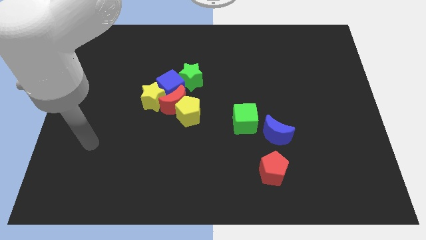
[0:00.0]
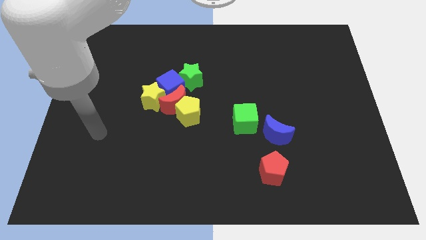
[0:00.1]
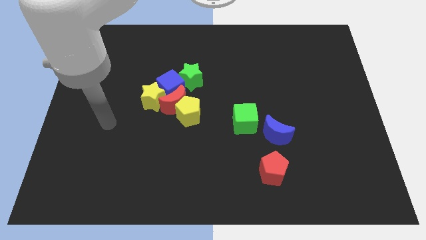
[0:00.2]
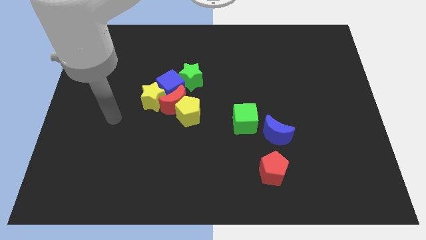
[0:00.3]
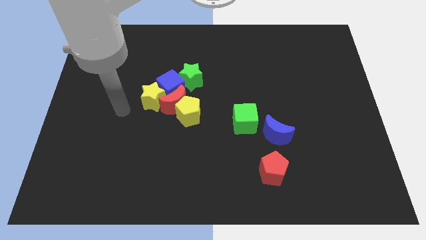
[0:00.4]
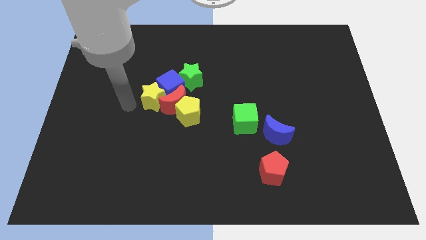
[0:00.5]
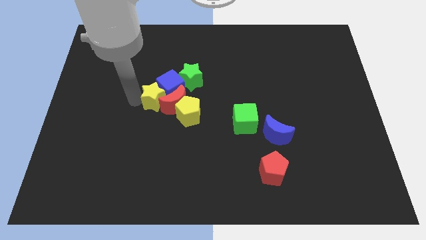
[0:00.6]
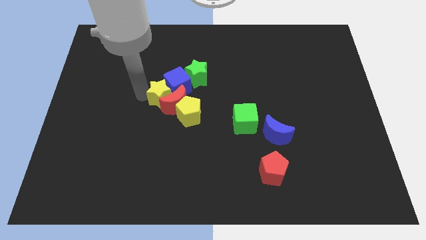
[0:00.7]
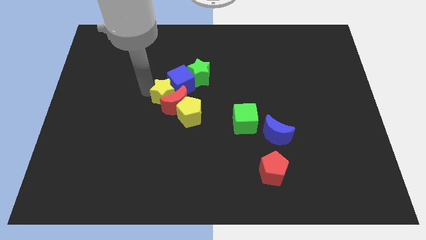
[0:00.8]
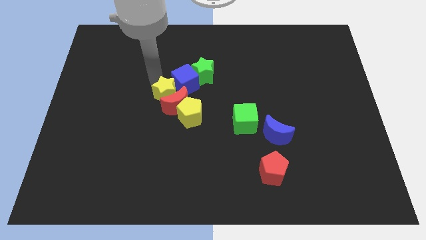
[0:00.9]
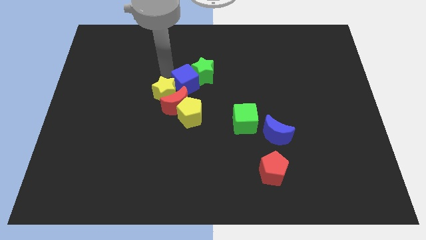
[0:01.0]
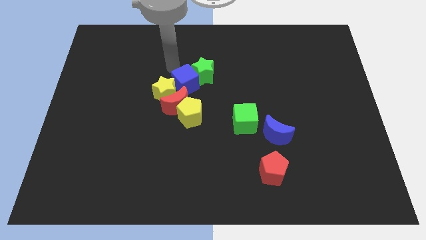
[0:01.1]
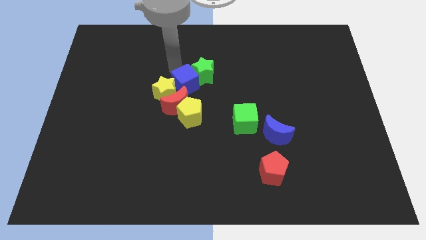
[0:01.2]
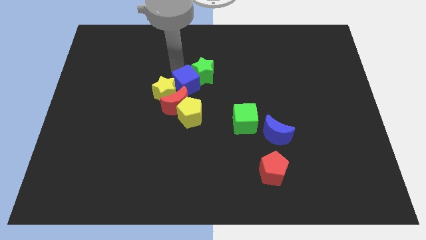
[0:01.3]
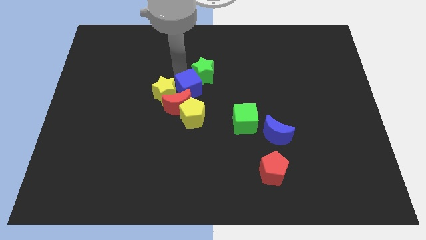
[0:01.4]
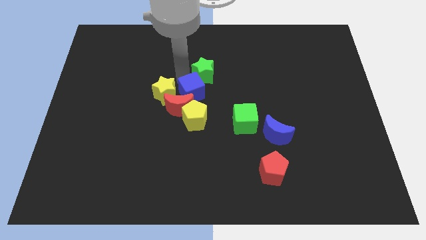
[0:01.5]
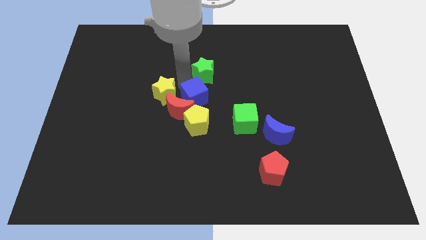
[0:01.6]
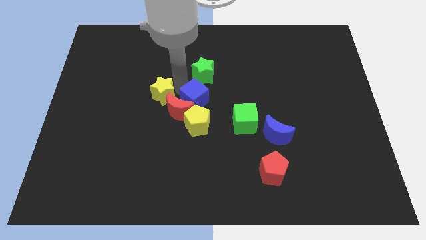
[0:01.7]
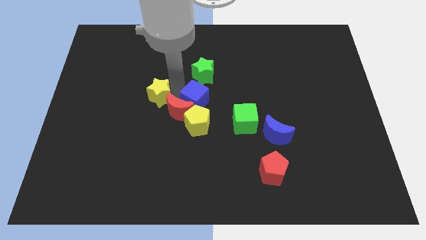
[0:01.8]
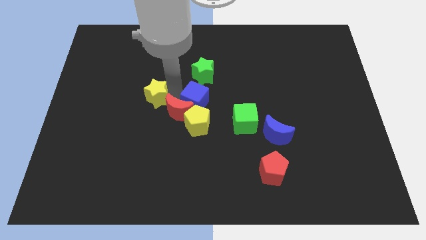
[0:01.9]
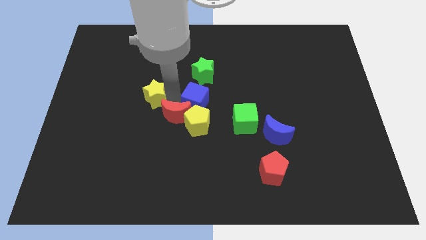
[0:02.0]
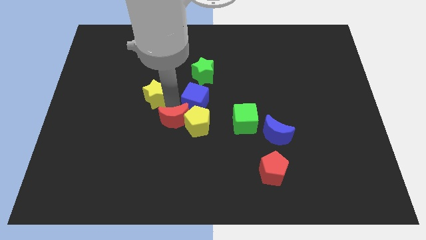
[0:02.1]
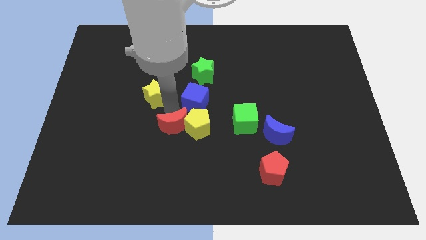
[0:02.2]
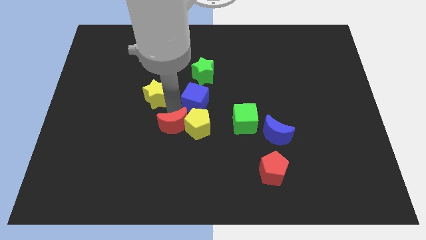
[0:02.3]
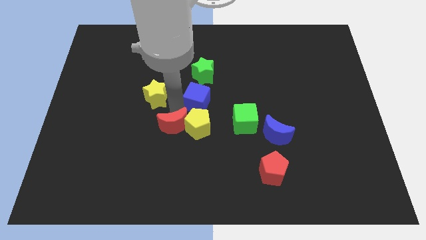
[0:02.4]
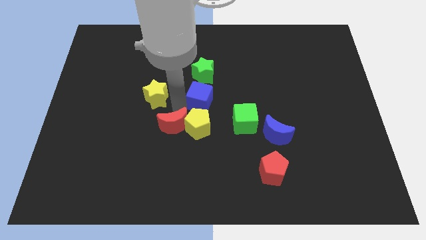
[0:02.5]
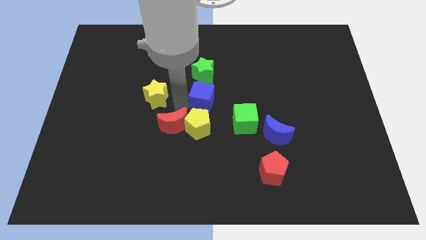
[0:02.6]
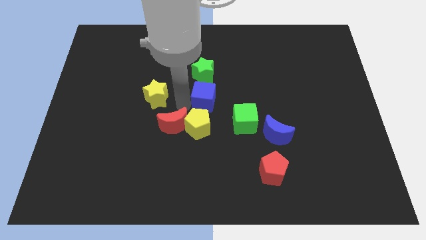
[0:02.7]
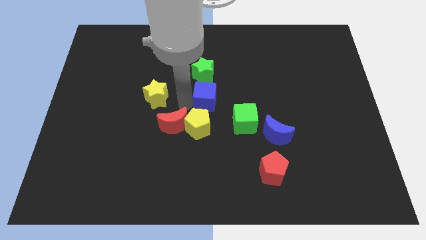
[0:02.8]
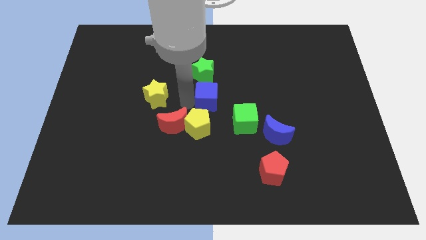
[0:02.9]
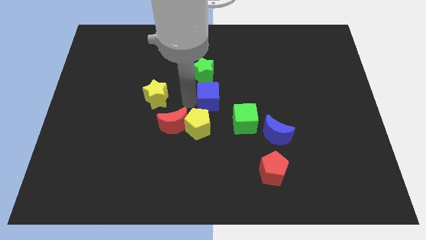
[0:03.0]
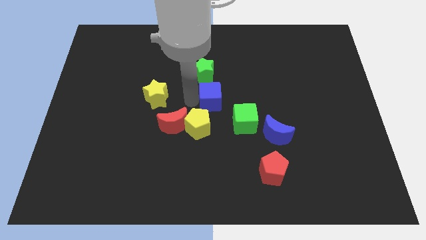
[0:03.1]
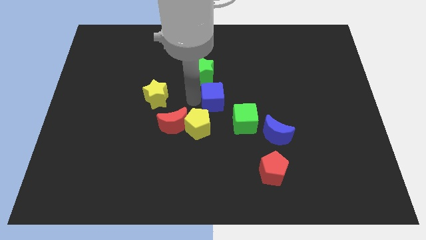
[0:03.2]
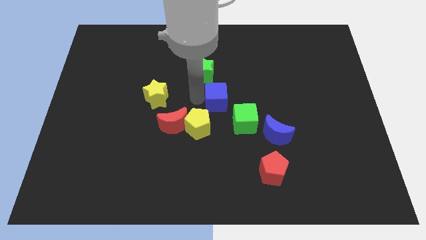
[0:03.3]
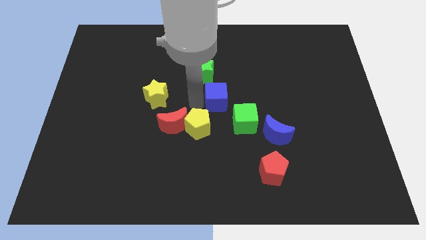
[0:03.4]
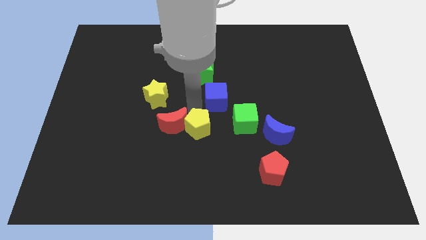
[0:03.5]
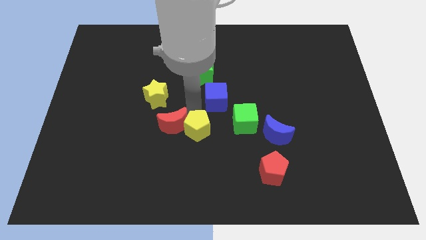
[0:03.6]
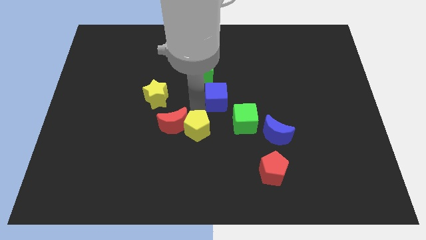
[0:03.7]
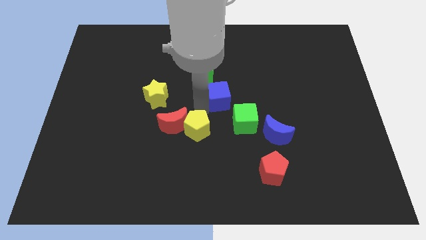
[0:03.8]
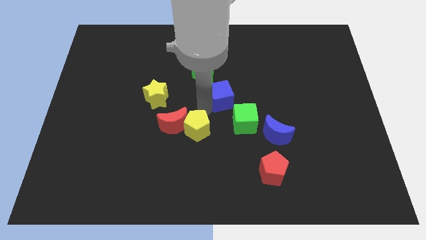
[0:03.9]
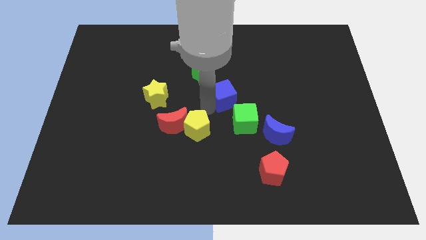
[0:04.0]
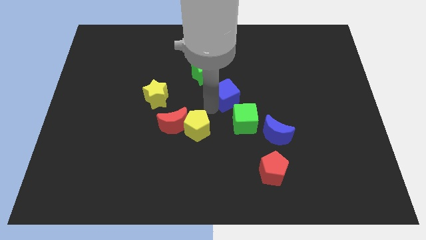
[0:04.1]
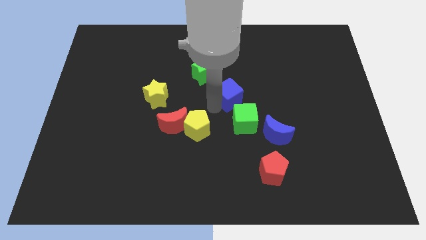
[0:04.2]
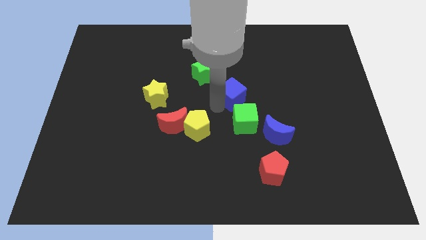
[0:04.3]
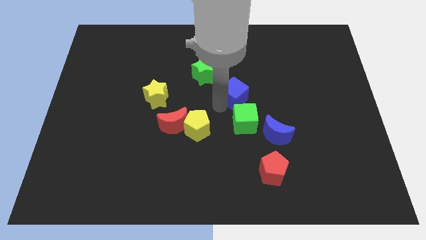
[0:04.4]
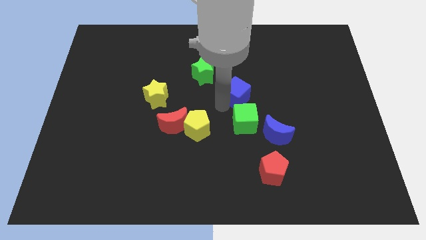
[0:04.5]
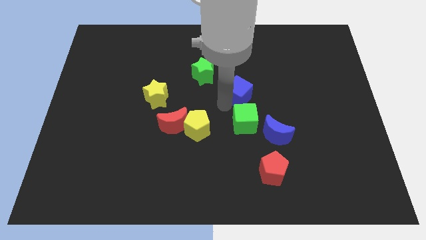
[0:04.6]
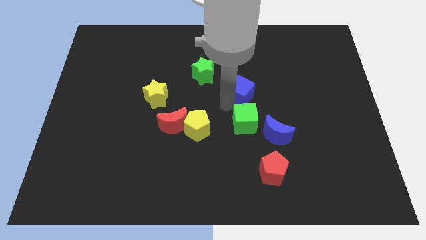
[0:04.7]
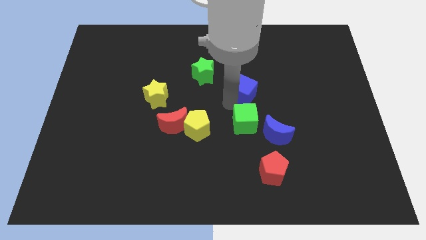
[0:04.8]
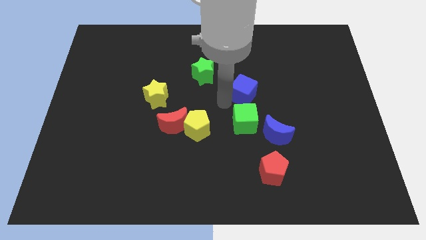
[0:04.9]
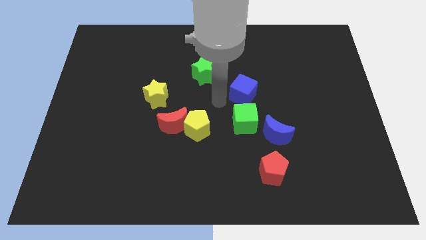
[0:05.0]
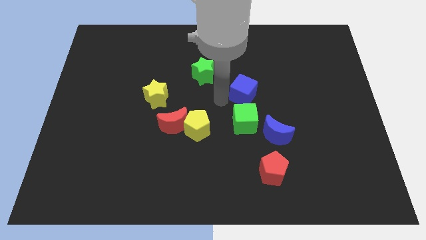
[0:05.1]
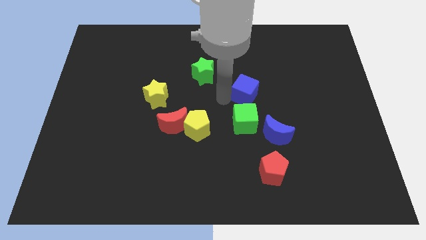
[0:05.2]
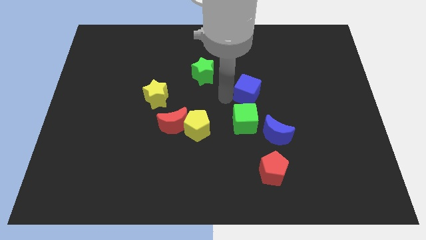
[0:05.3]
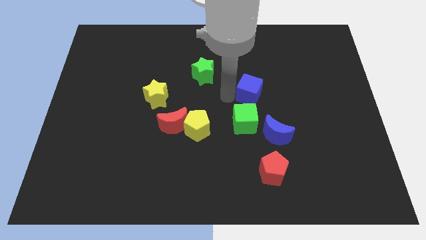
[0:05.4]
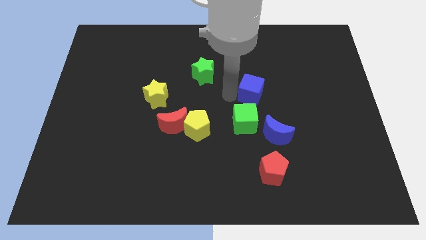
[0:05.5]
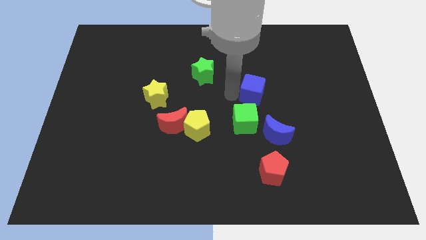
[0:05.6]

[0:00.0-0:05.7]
move the blue cube to the right

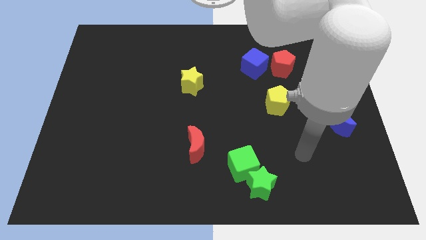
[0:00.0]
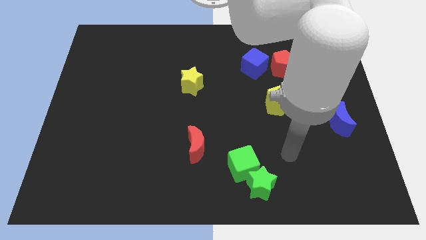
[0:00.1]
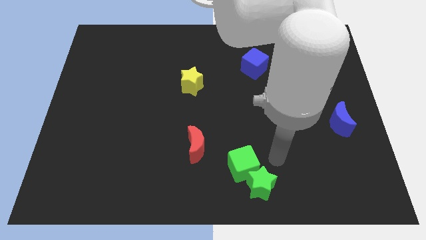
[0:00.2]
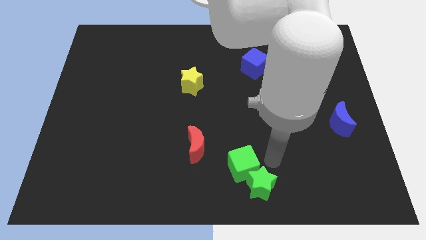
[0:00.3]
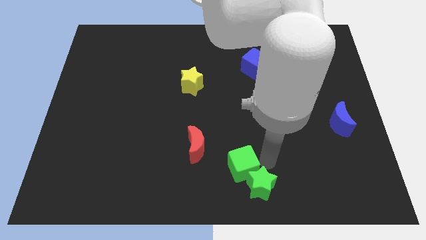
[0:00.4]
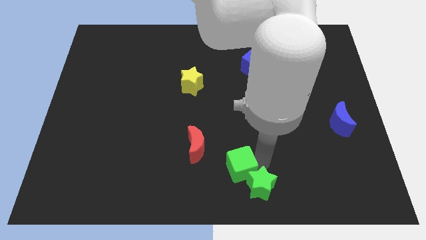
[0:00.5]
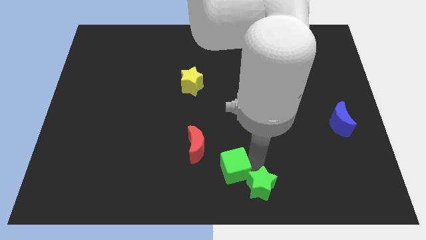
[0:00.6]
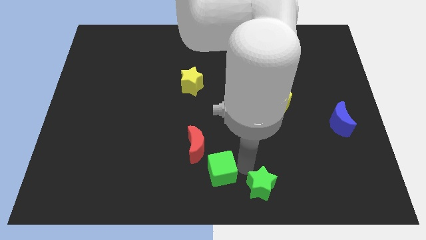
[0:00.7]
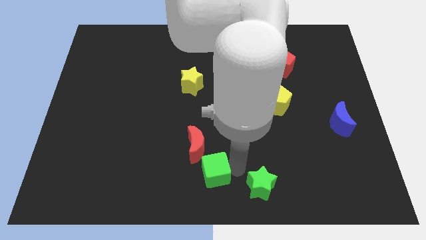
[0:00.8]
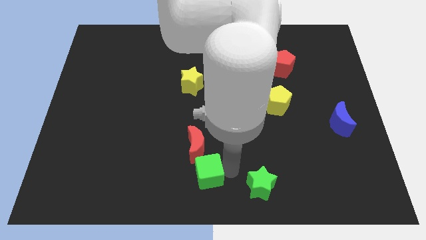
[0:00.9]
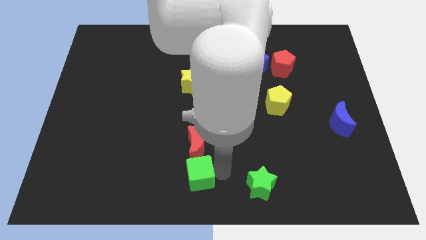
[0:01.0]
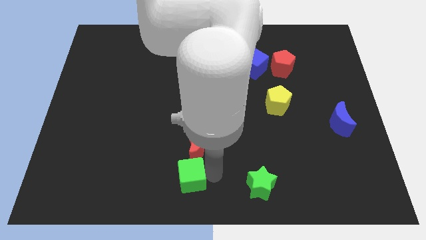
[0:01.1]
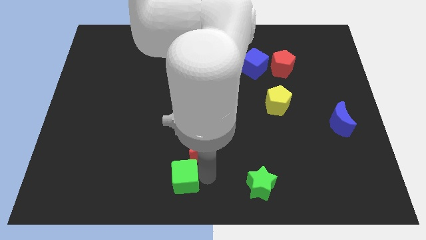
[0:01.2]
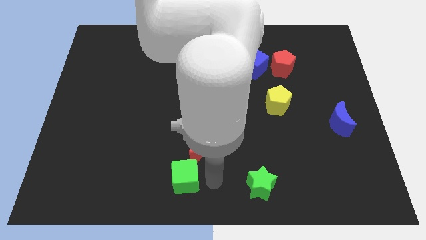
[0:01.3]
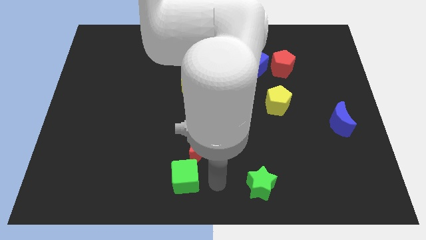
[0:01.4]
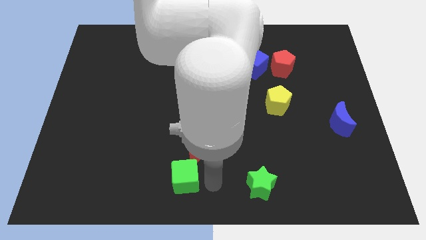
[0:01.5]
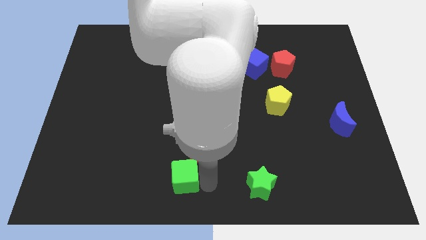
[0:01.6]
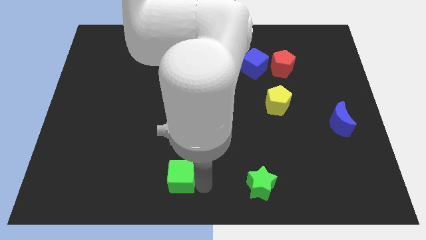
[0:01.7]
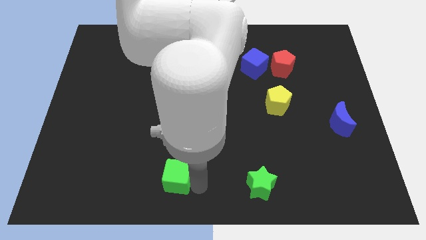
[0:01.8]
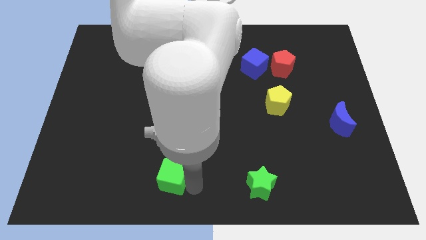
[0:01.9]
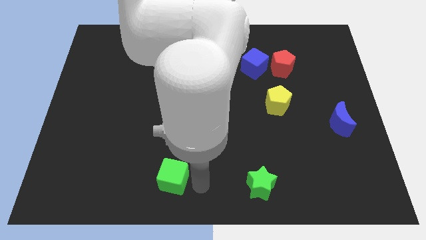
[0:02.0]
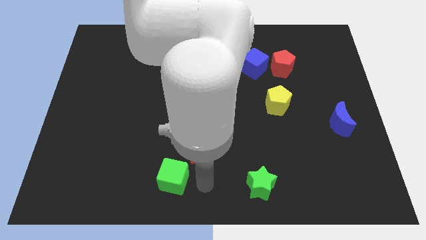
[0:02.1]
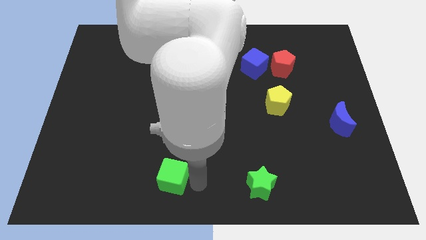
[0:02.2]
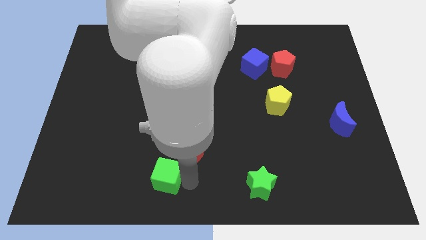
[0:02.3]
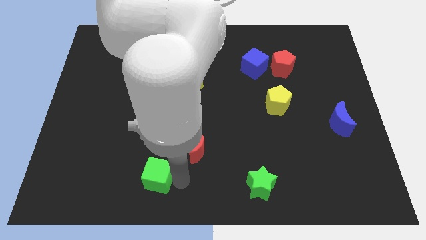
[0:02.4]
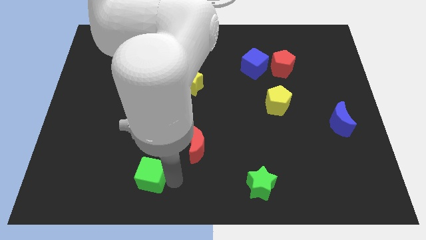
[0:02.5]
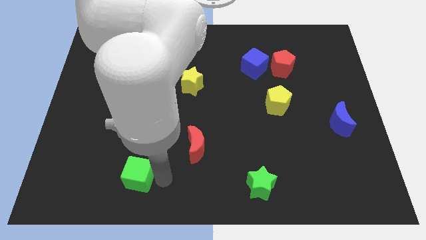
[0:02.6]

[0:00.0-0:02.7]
push the green cube to the left

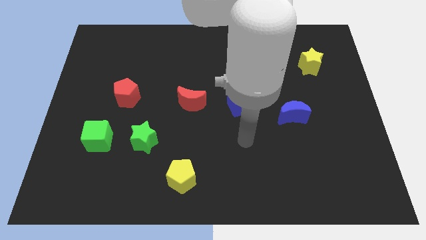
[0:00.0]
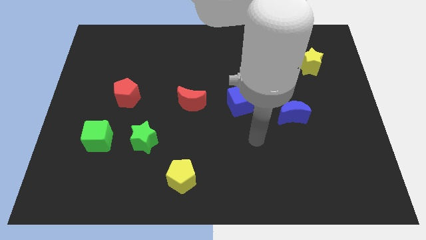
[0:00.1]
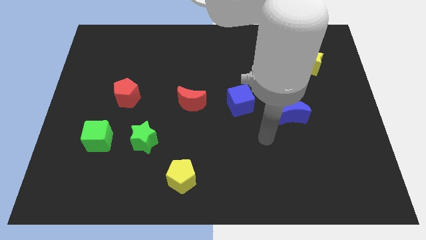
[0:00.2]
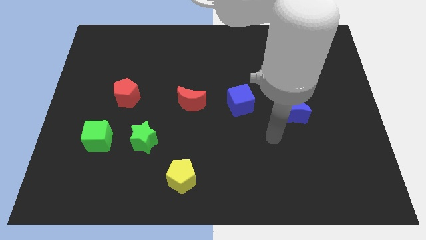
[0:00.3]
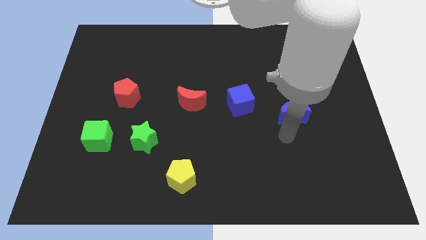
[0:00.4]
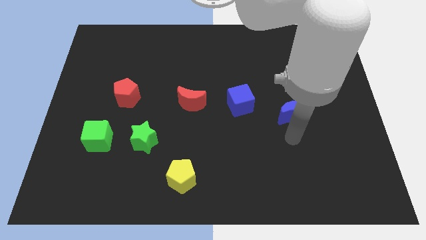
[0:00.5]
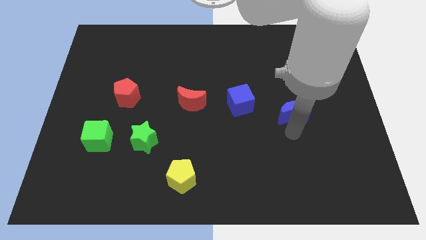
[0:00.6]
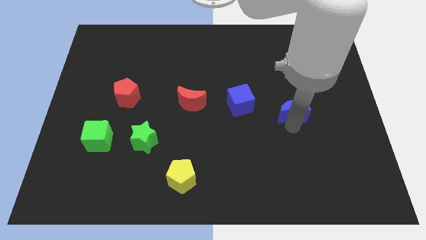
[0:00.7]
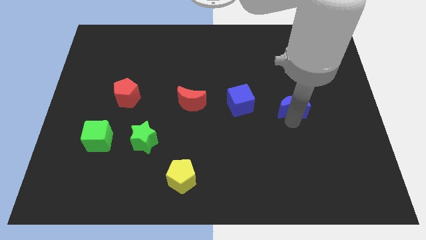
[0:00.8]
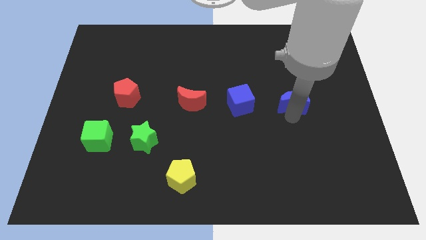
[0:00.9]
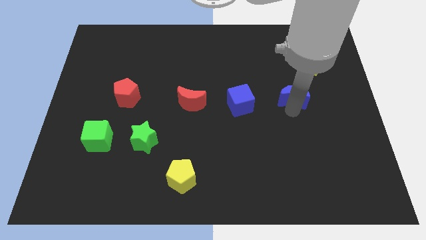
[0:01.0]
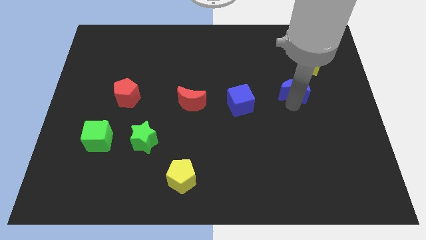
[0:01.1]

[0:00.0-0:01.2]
push the blue moon a little bit upwards
